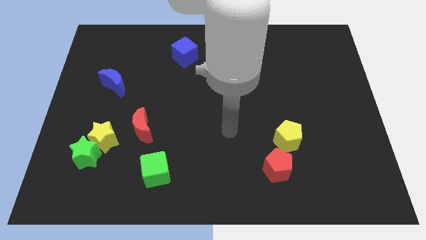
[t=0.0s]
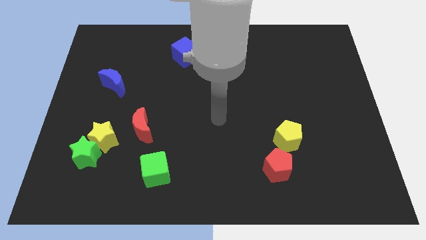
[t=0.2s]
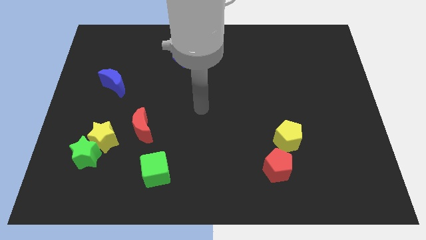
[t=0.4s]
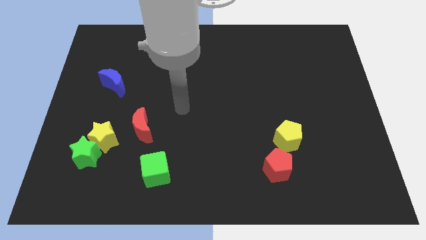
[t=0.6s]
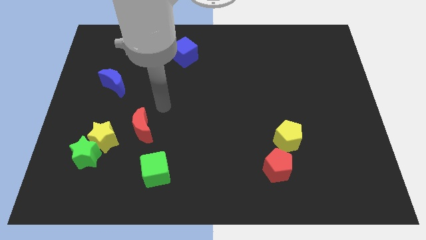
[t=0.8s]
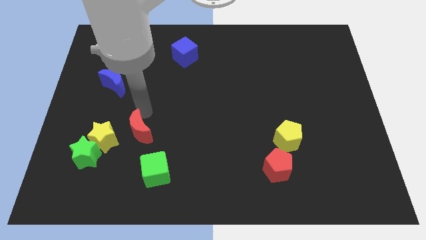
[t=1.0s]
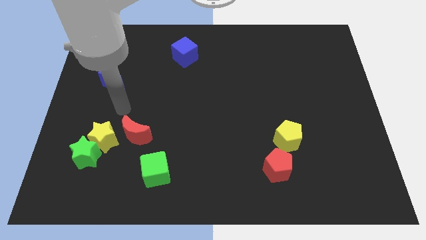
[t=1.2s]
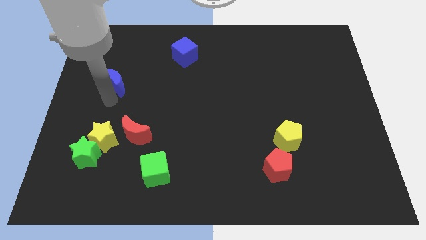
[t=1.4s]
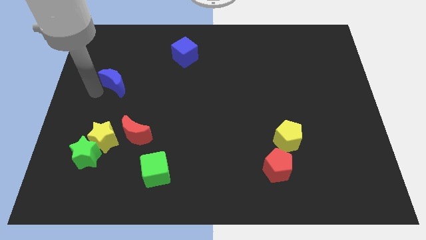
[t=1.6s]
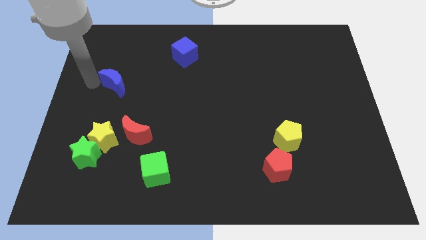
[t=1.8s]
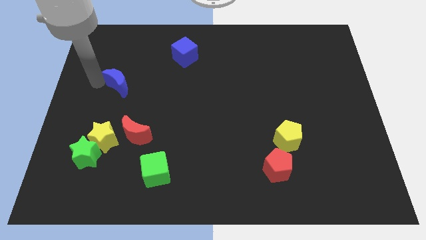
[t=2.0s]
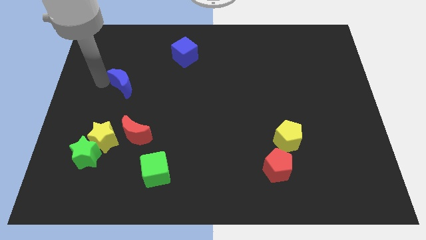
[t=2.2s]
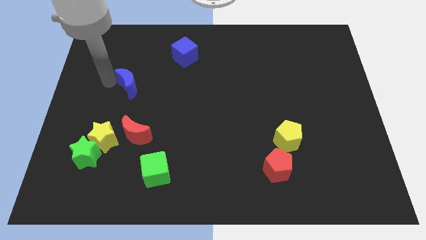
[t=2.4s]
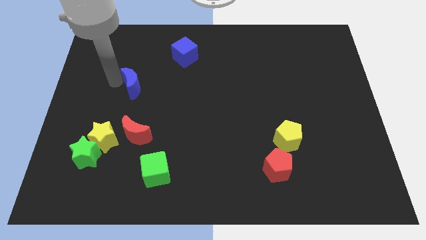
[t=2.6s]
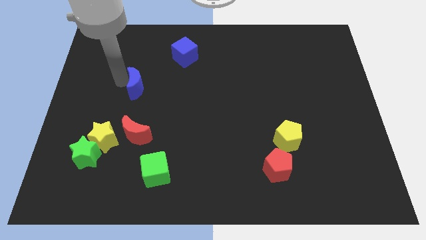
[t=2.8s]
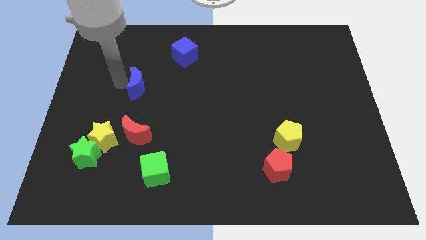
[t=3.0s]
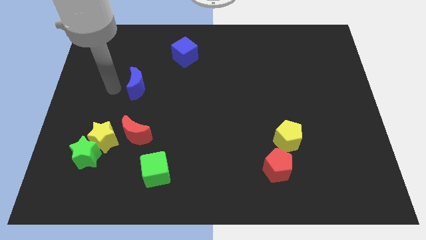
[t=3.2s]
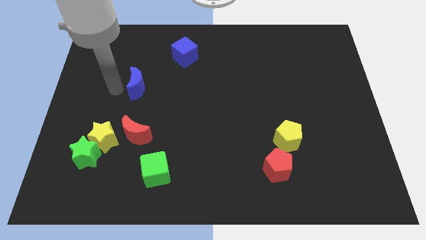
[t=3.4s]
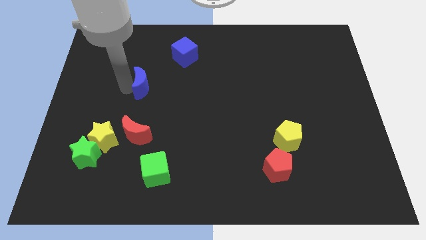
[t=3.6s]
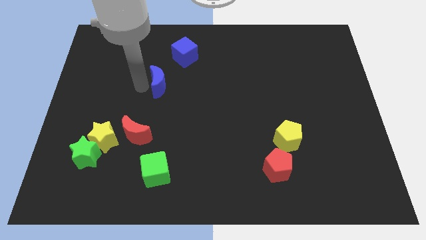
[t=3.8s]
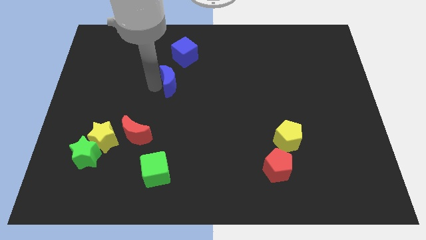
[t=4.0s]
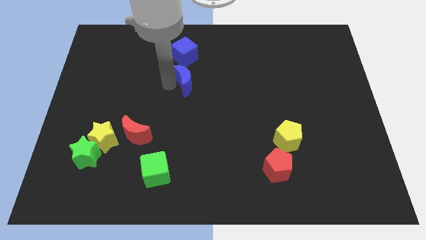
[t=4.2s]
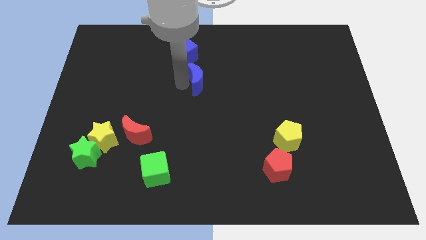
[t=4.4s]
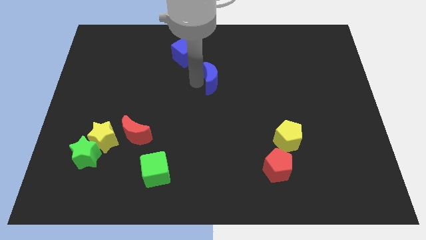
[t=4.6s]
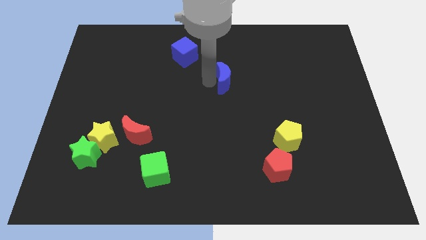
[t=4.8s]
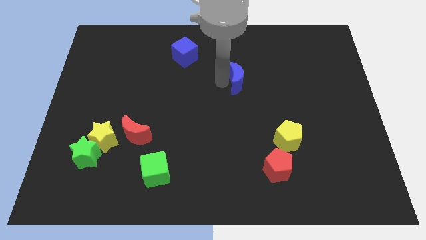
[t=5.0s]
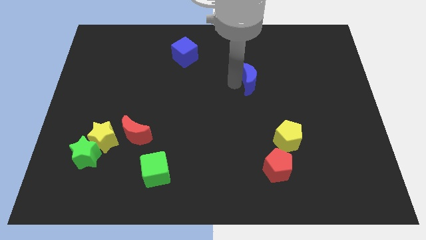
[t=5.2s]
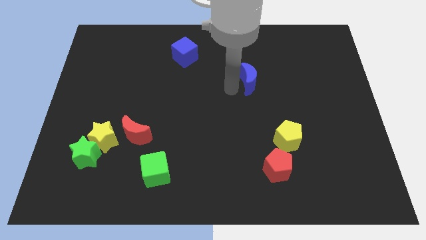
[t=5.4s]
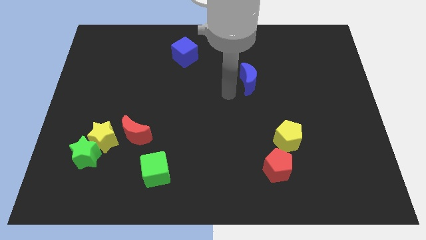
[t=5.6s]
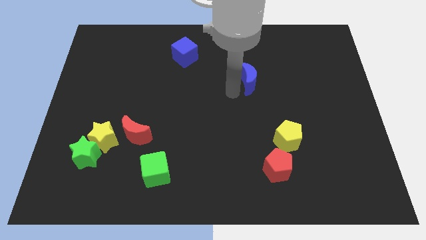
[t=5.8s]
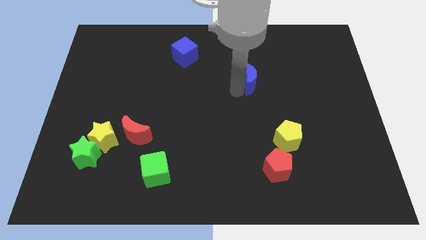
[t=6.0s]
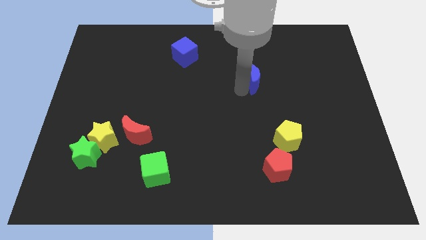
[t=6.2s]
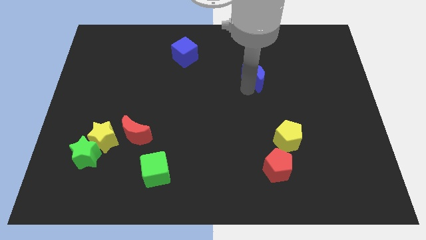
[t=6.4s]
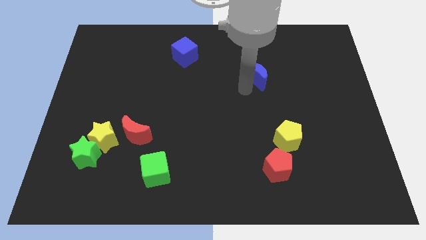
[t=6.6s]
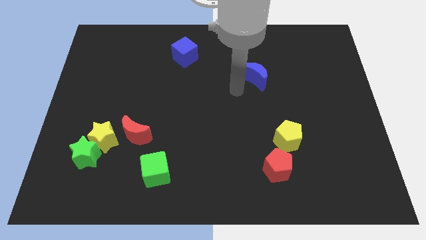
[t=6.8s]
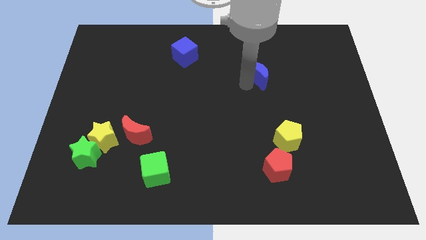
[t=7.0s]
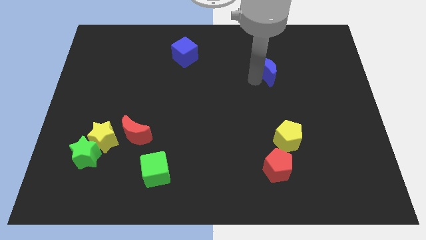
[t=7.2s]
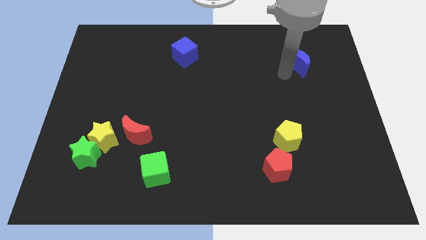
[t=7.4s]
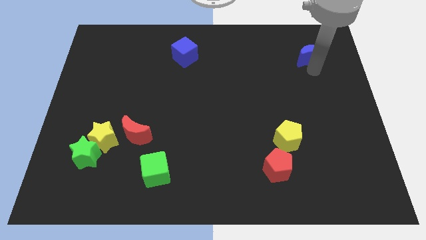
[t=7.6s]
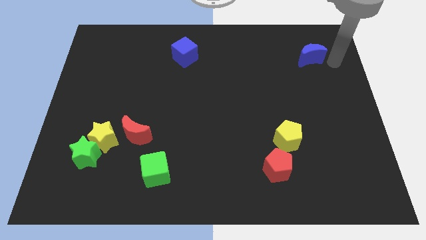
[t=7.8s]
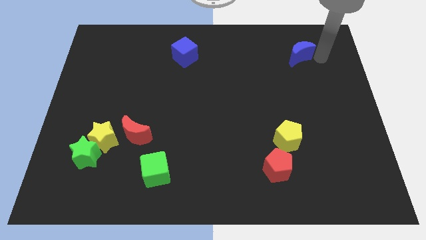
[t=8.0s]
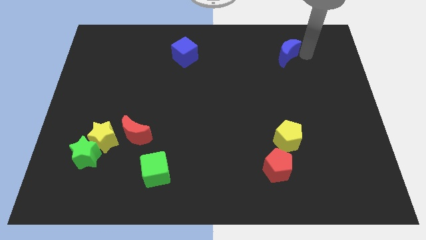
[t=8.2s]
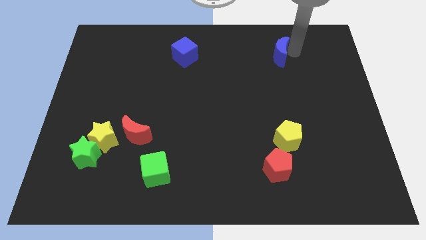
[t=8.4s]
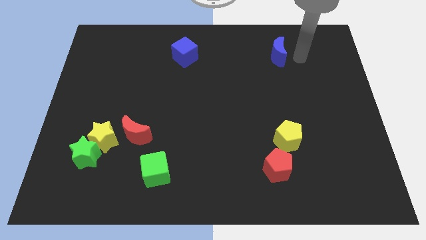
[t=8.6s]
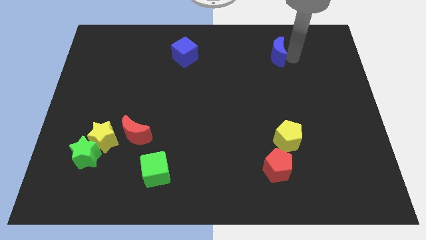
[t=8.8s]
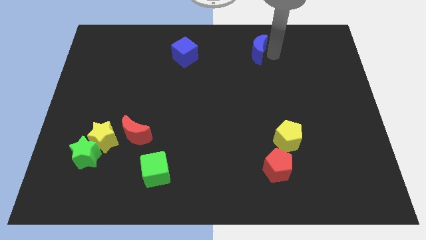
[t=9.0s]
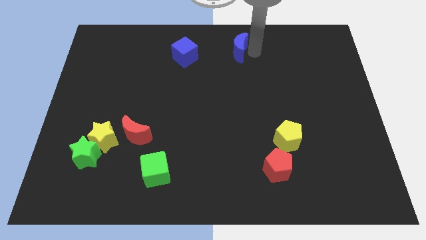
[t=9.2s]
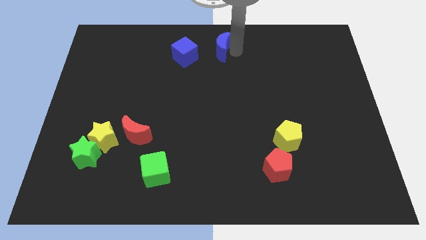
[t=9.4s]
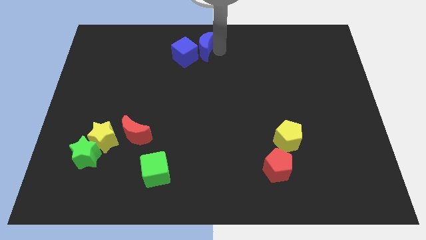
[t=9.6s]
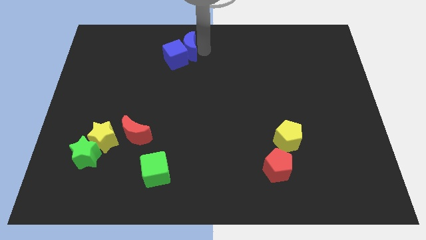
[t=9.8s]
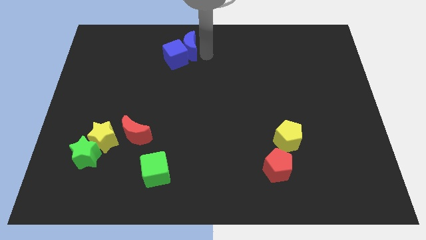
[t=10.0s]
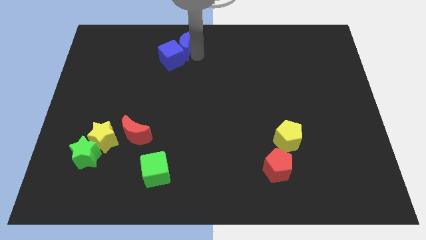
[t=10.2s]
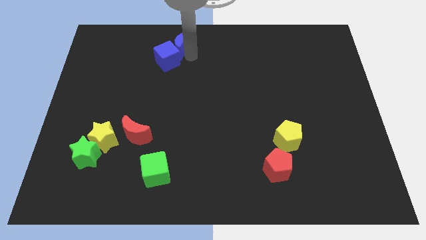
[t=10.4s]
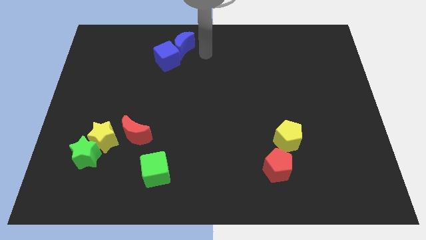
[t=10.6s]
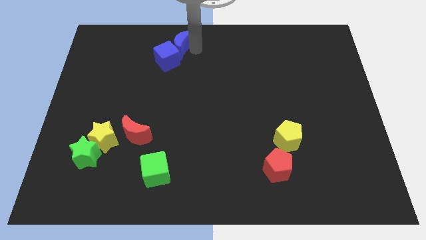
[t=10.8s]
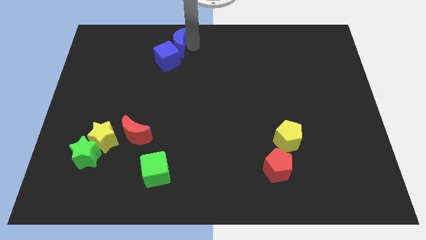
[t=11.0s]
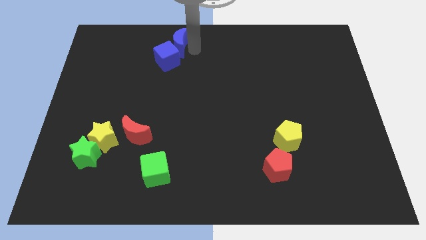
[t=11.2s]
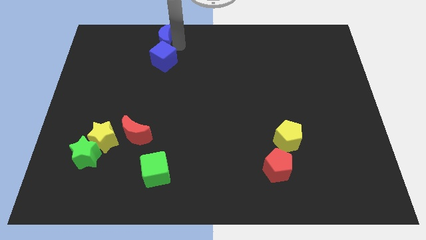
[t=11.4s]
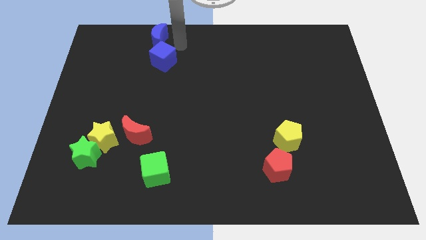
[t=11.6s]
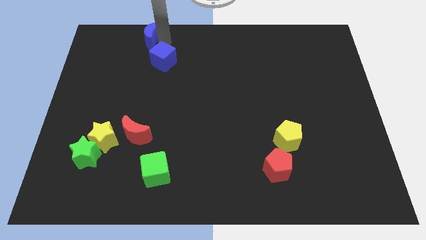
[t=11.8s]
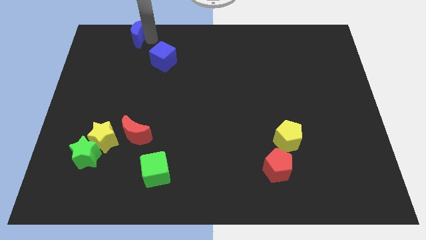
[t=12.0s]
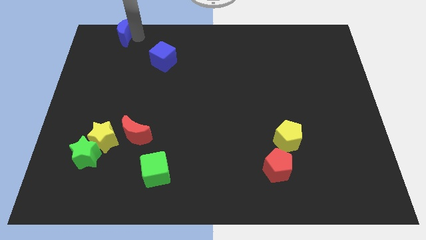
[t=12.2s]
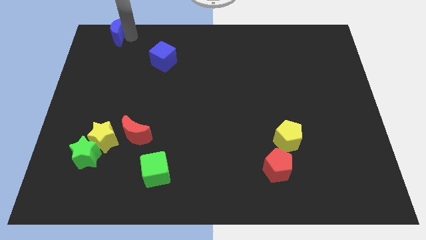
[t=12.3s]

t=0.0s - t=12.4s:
slide the blue moon to the top left
